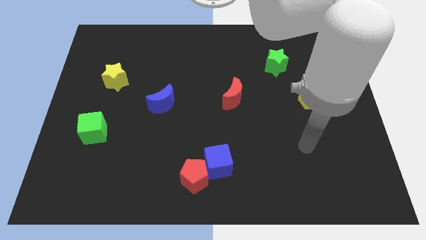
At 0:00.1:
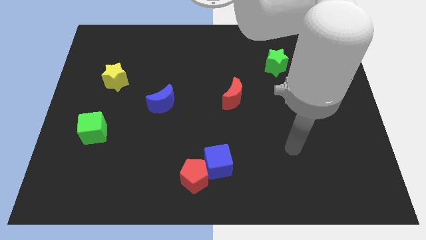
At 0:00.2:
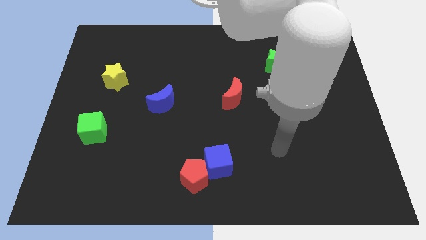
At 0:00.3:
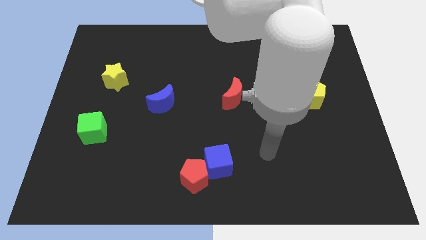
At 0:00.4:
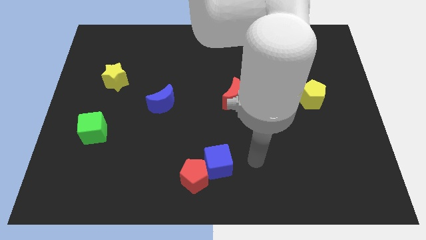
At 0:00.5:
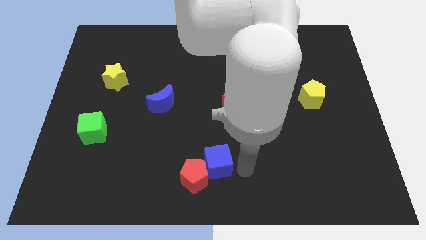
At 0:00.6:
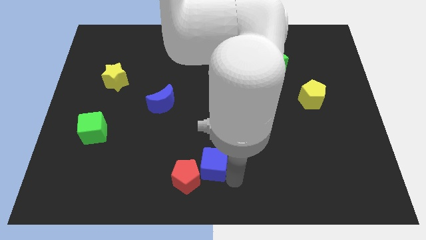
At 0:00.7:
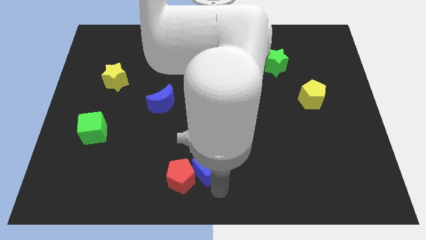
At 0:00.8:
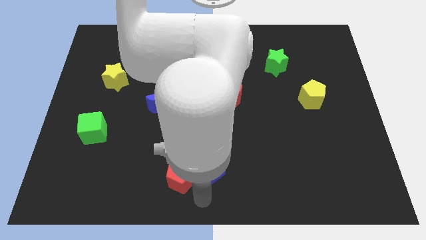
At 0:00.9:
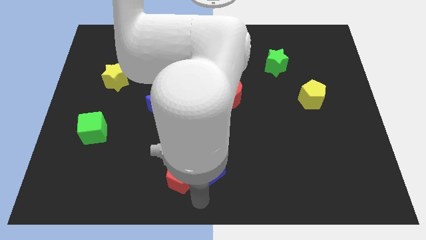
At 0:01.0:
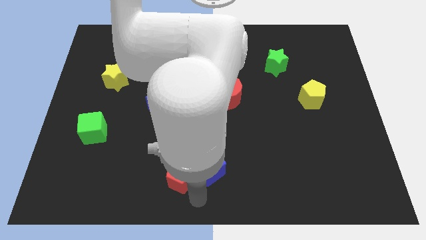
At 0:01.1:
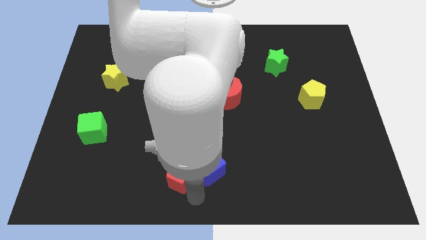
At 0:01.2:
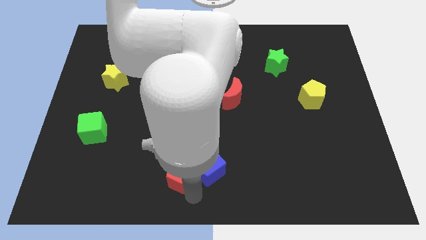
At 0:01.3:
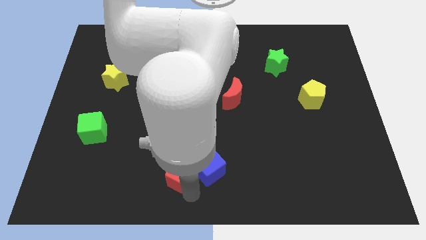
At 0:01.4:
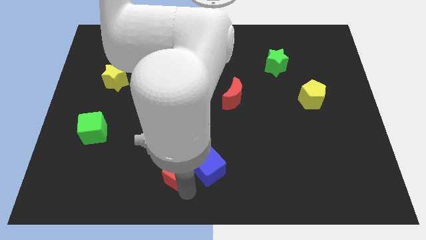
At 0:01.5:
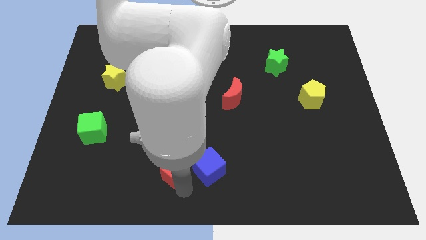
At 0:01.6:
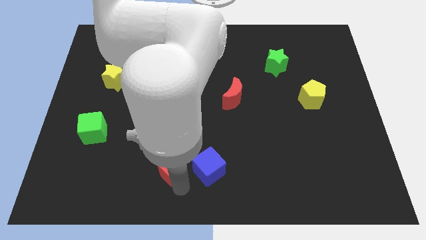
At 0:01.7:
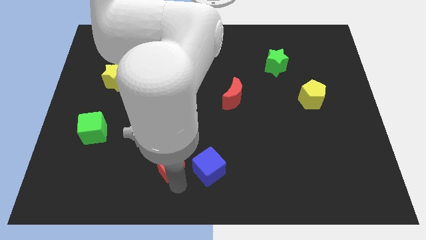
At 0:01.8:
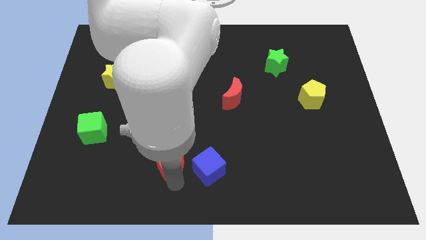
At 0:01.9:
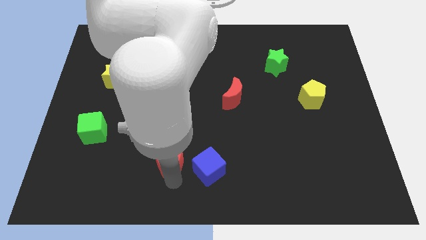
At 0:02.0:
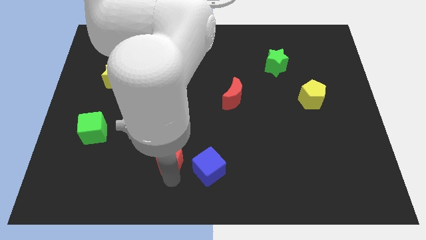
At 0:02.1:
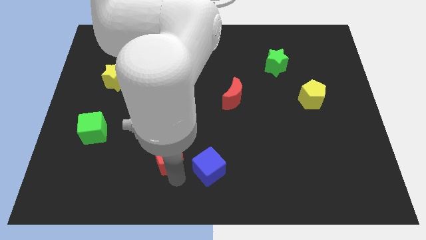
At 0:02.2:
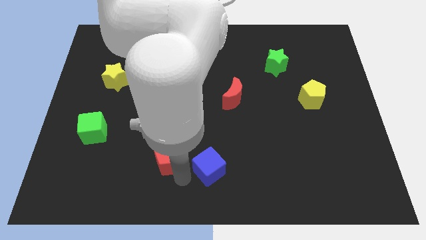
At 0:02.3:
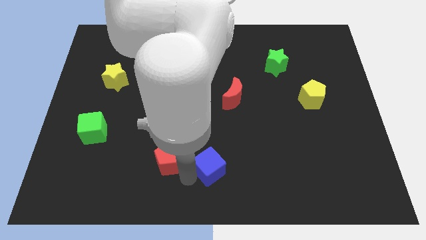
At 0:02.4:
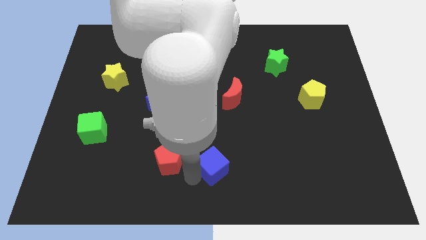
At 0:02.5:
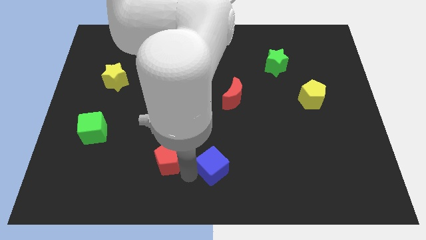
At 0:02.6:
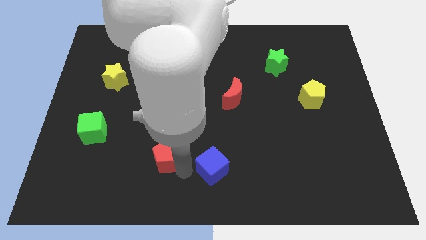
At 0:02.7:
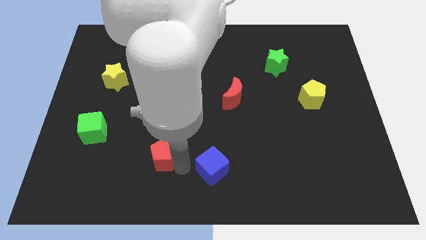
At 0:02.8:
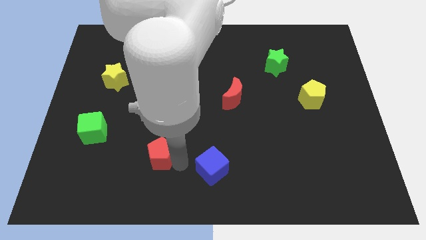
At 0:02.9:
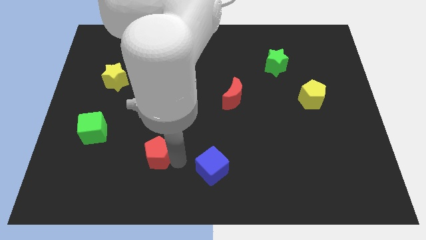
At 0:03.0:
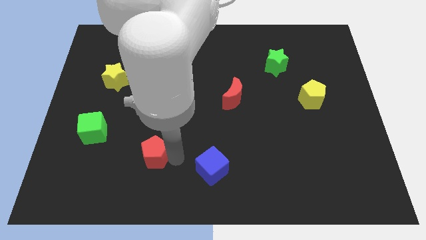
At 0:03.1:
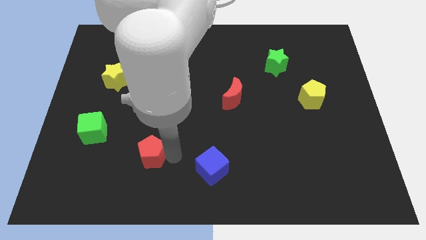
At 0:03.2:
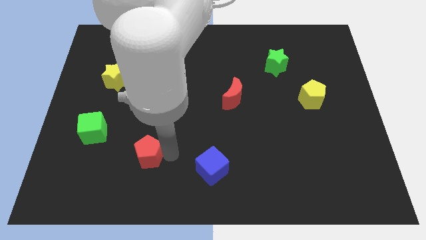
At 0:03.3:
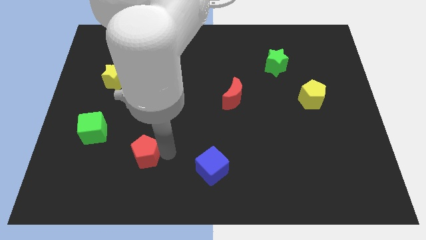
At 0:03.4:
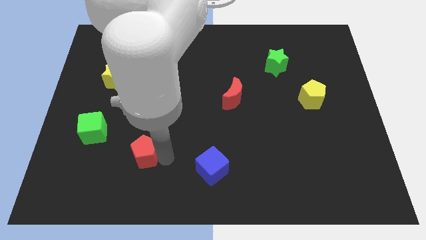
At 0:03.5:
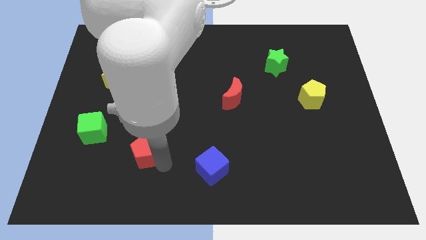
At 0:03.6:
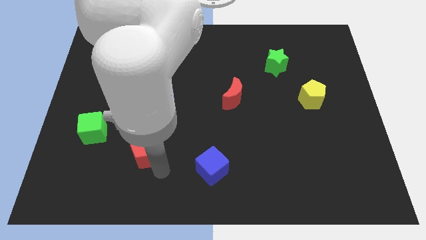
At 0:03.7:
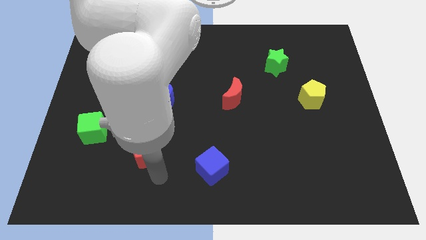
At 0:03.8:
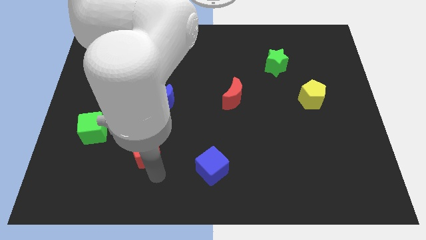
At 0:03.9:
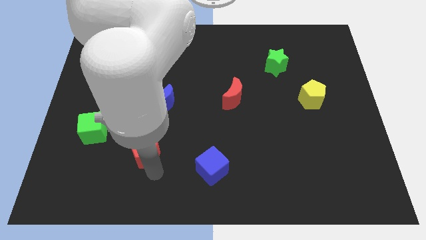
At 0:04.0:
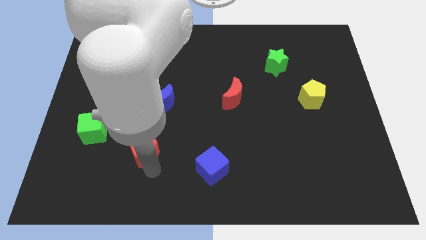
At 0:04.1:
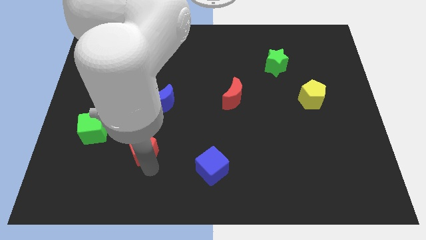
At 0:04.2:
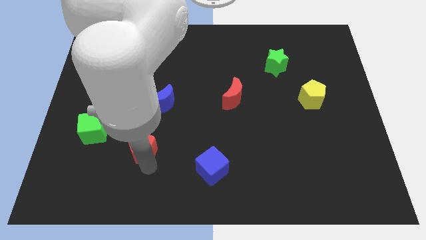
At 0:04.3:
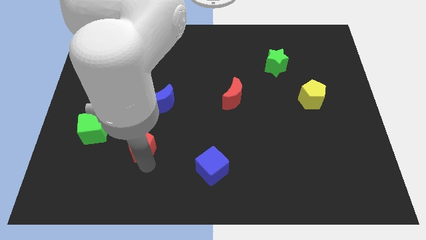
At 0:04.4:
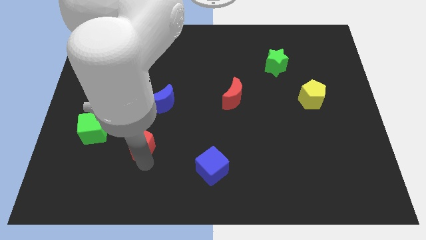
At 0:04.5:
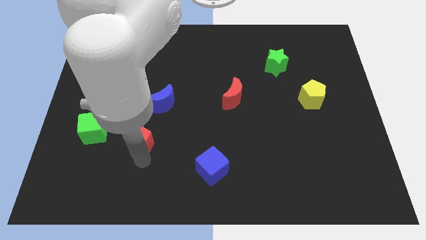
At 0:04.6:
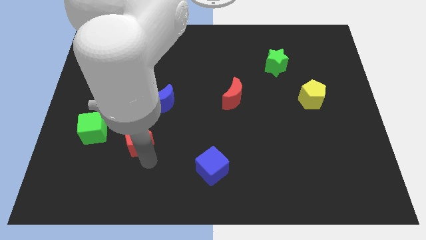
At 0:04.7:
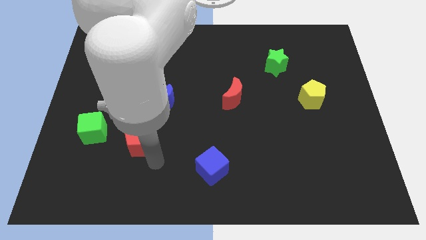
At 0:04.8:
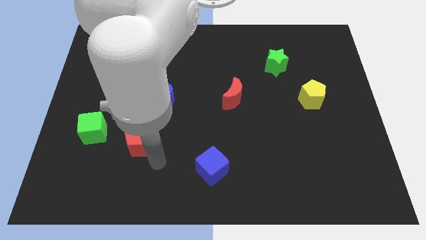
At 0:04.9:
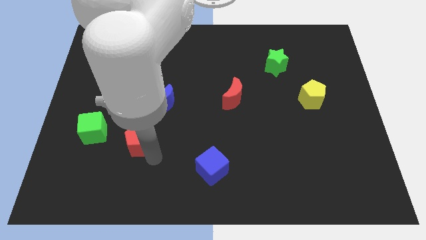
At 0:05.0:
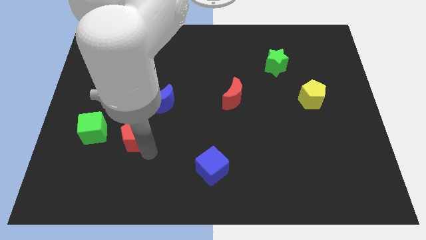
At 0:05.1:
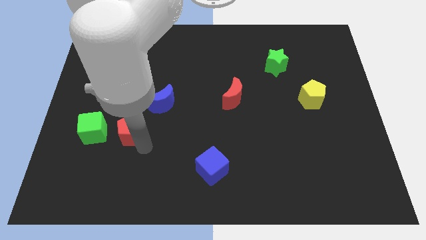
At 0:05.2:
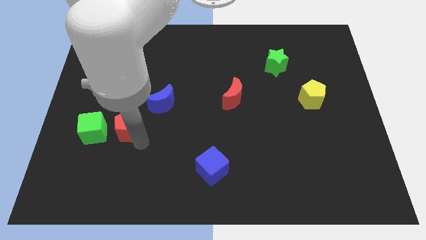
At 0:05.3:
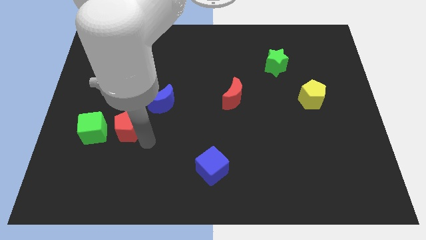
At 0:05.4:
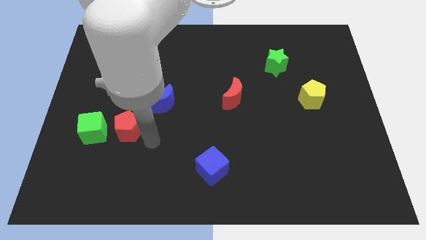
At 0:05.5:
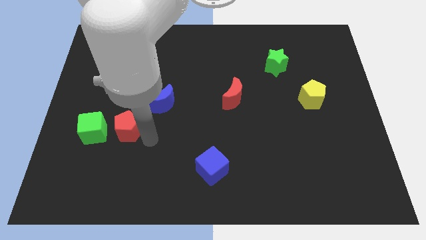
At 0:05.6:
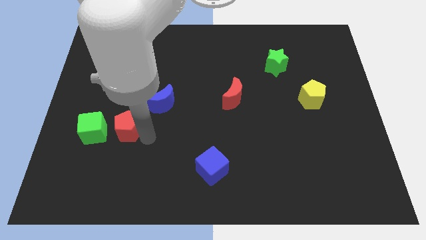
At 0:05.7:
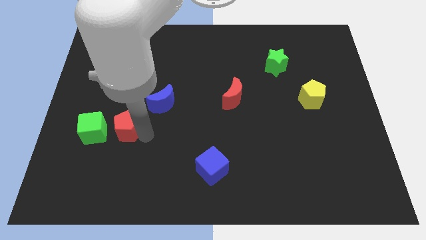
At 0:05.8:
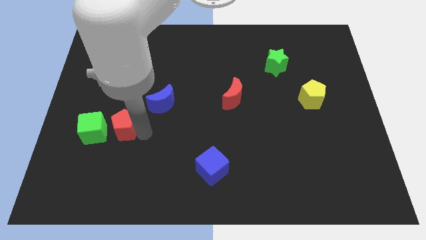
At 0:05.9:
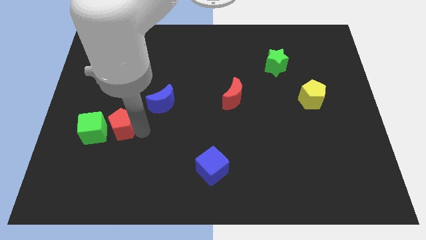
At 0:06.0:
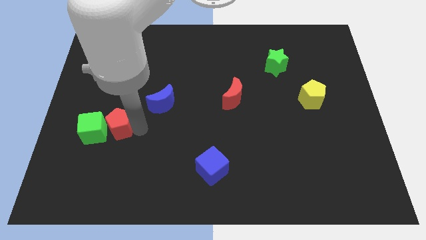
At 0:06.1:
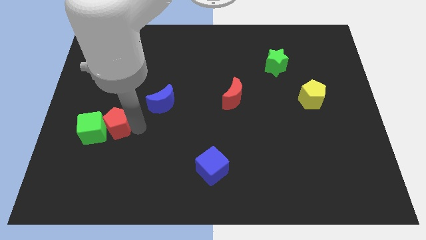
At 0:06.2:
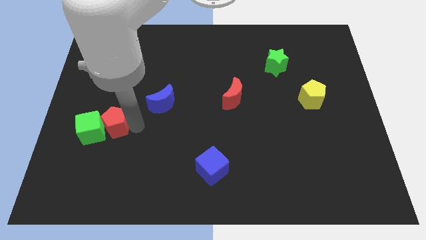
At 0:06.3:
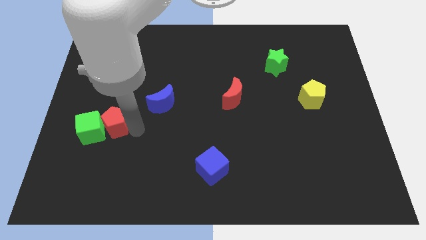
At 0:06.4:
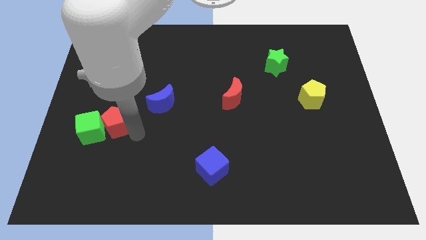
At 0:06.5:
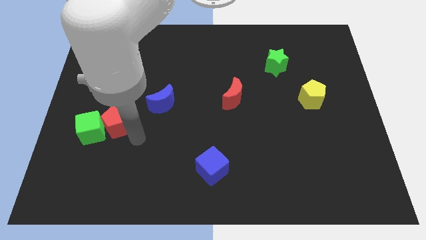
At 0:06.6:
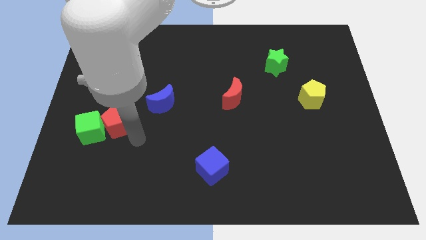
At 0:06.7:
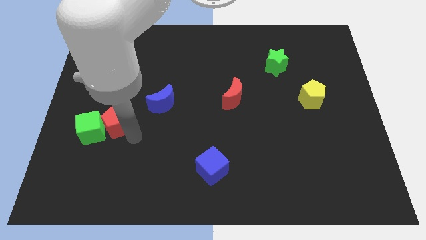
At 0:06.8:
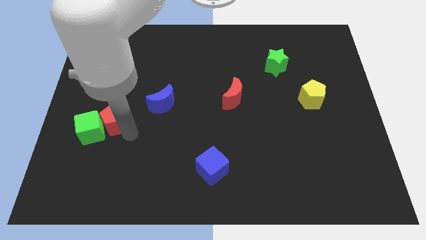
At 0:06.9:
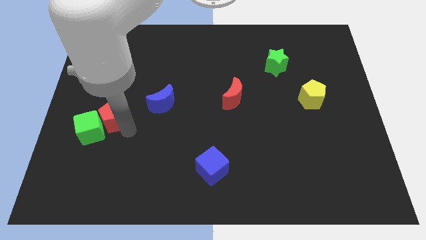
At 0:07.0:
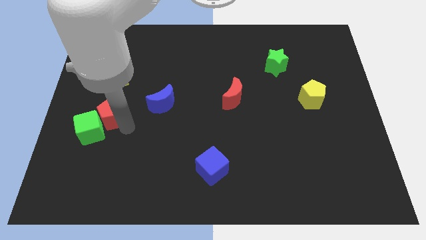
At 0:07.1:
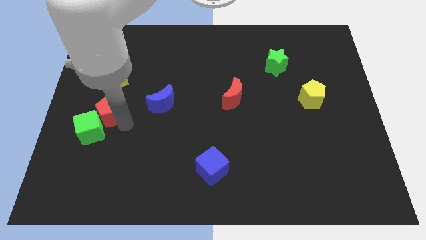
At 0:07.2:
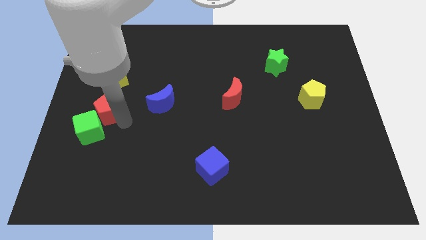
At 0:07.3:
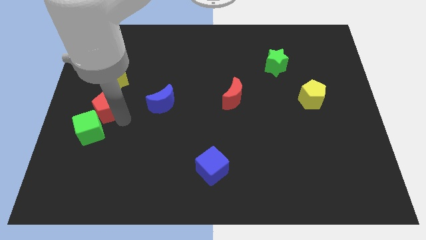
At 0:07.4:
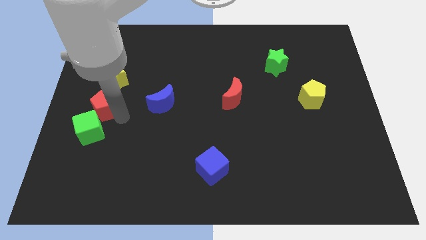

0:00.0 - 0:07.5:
push the red pentagon to the center left
